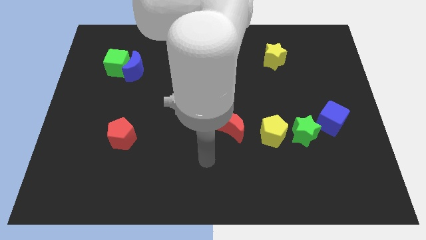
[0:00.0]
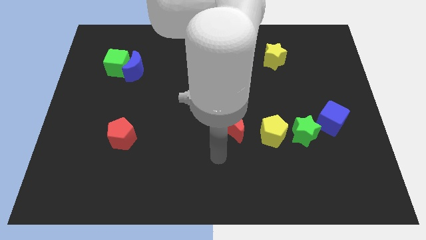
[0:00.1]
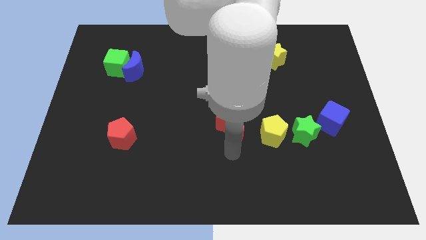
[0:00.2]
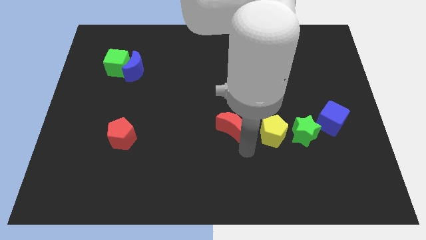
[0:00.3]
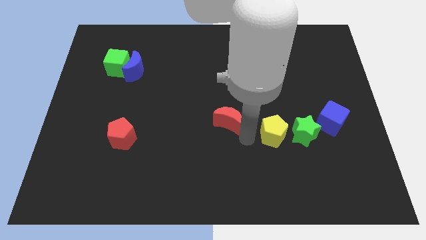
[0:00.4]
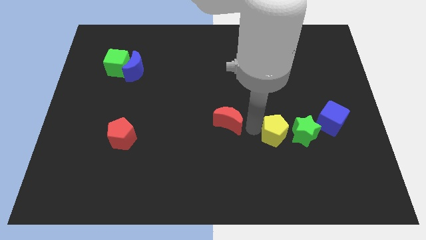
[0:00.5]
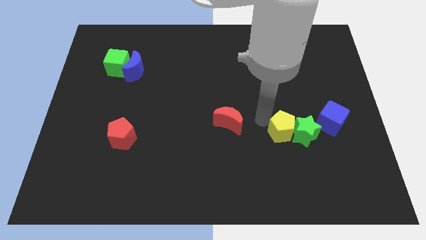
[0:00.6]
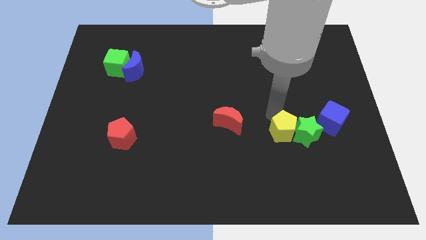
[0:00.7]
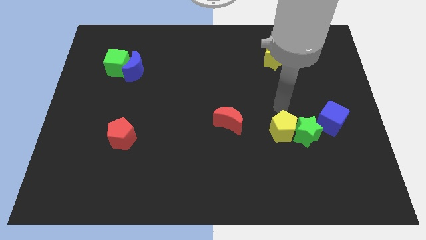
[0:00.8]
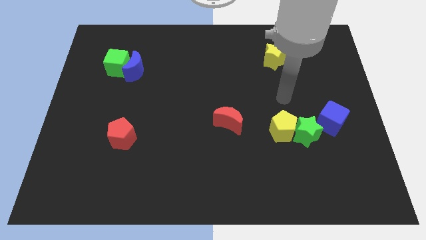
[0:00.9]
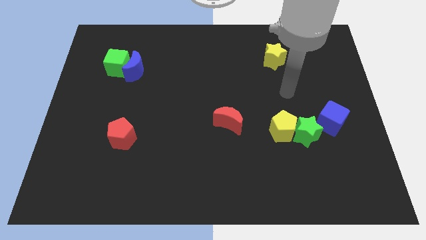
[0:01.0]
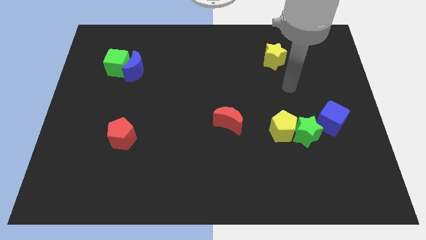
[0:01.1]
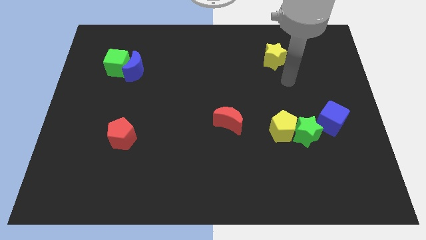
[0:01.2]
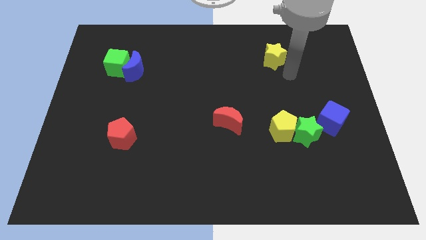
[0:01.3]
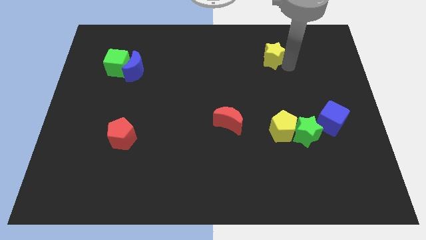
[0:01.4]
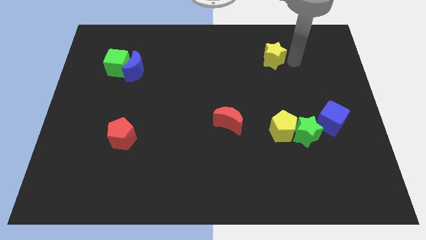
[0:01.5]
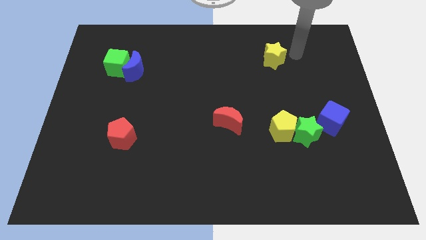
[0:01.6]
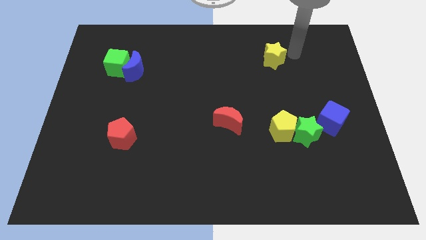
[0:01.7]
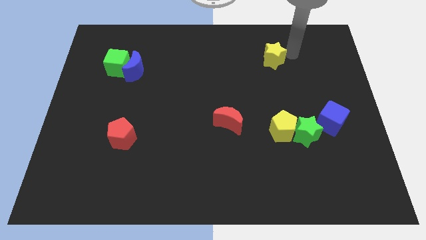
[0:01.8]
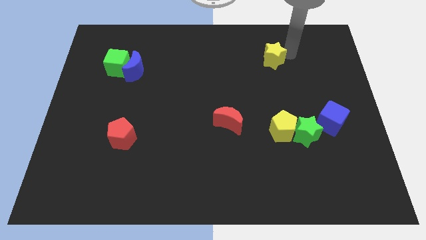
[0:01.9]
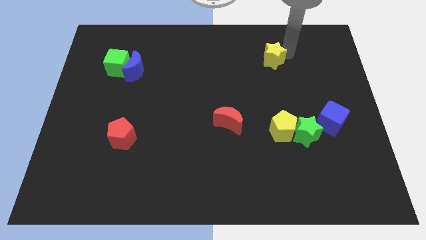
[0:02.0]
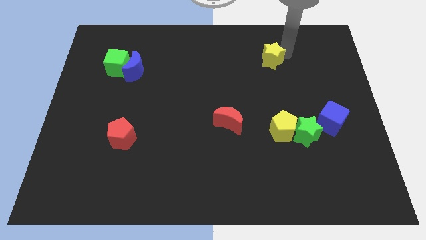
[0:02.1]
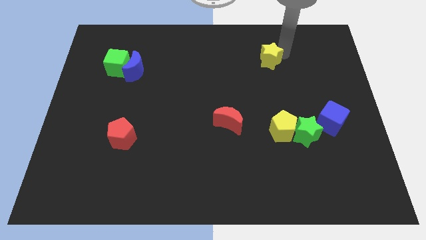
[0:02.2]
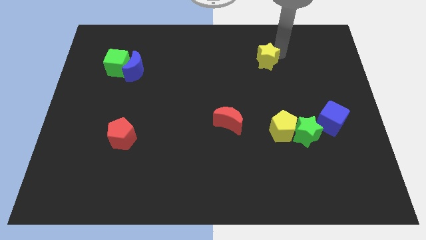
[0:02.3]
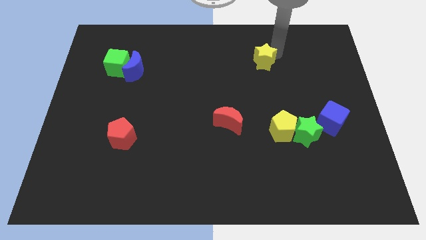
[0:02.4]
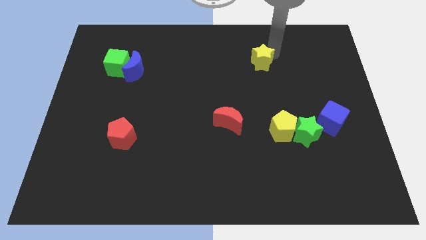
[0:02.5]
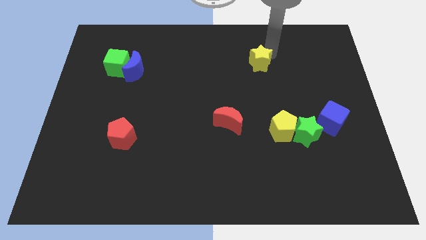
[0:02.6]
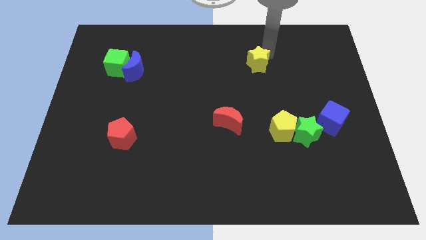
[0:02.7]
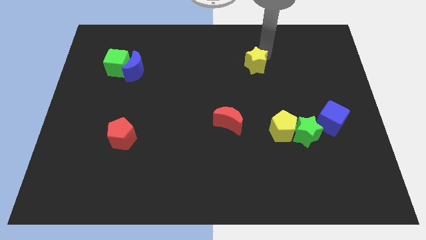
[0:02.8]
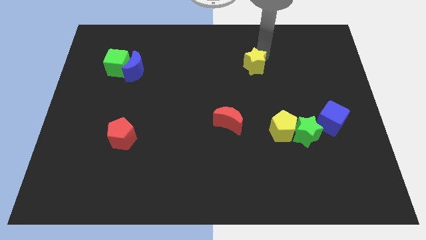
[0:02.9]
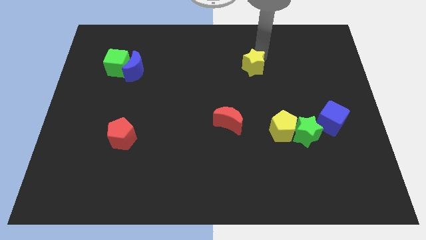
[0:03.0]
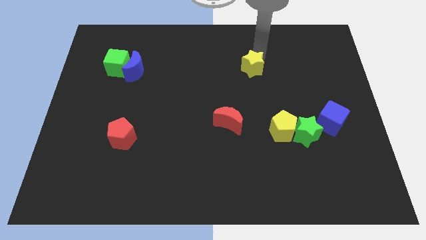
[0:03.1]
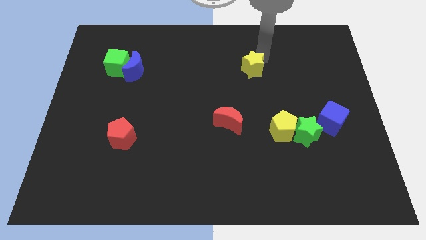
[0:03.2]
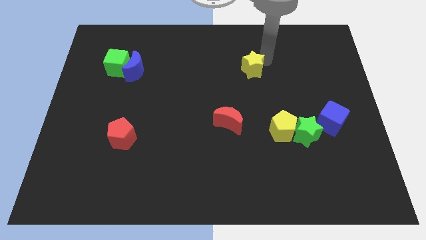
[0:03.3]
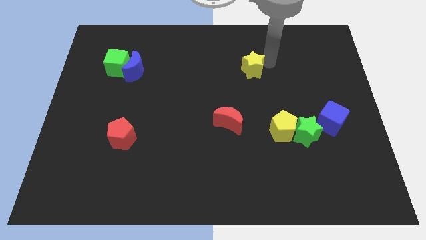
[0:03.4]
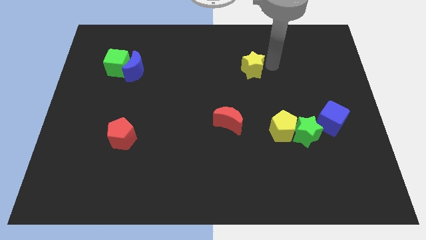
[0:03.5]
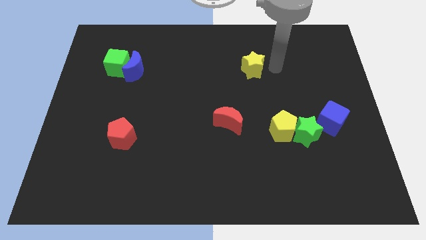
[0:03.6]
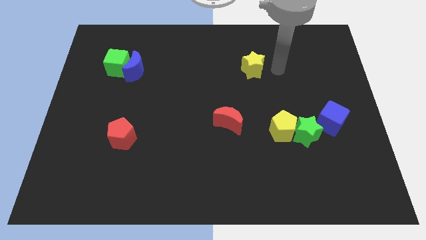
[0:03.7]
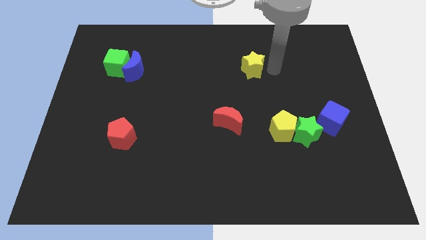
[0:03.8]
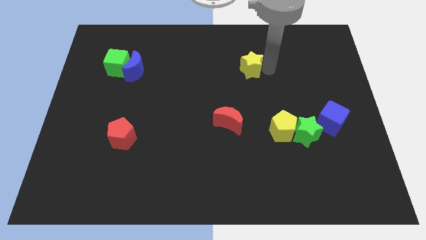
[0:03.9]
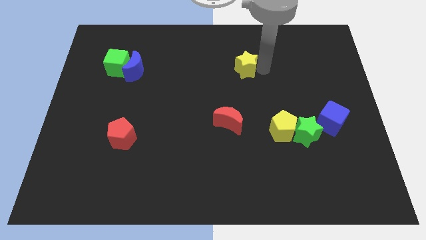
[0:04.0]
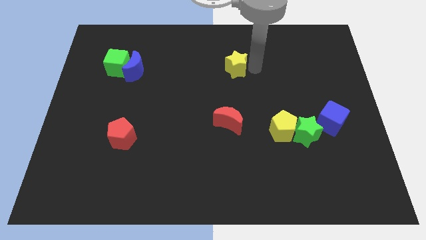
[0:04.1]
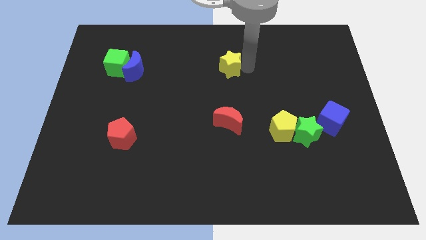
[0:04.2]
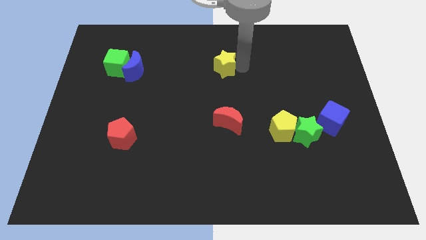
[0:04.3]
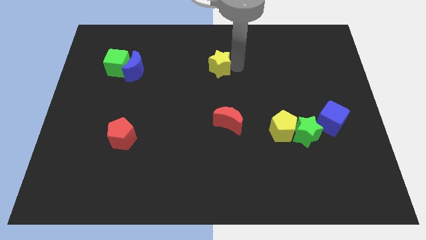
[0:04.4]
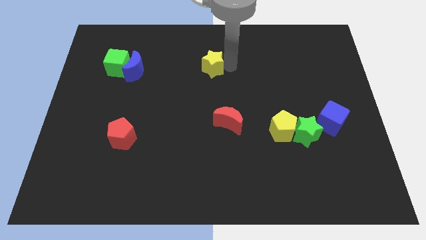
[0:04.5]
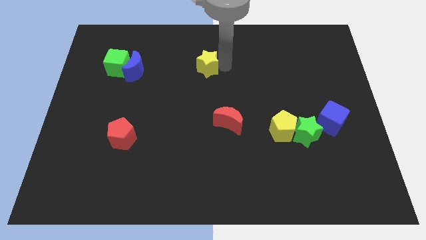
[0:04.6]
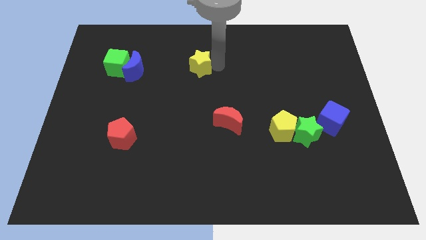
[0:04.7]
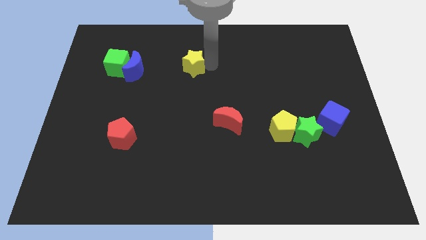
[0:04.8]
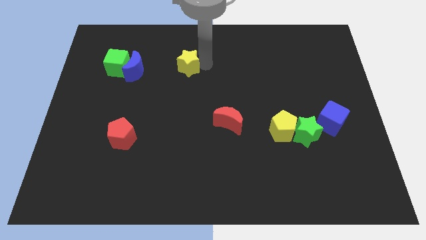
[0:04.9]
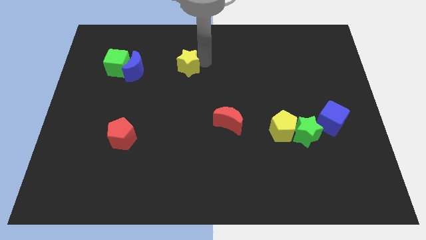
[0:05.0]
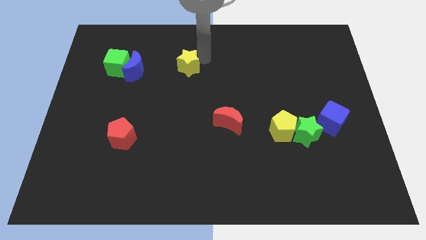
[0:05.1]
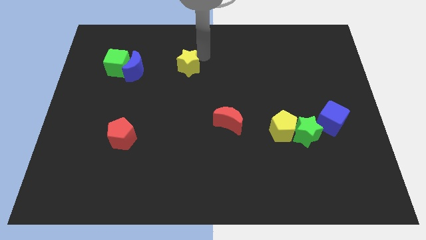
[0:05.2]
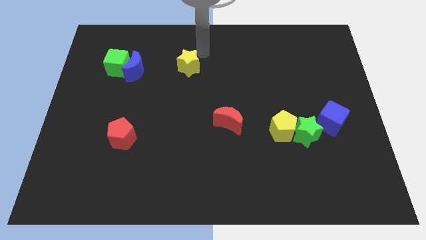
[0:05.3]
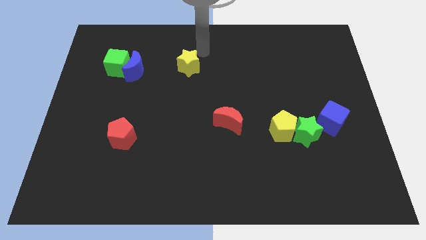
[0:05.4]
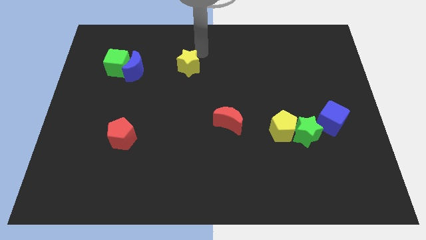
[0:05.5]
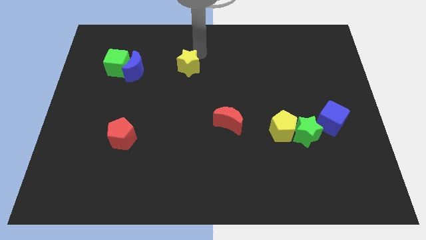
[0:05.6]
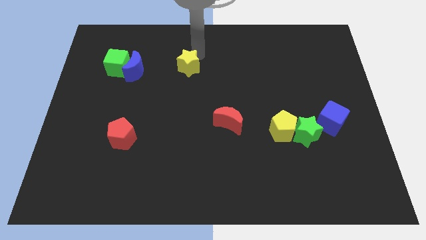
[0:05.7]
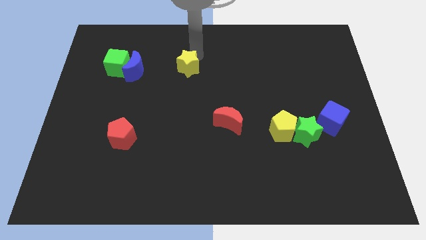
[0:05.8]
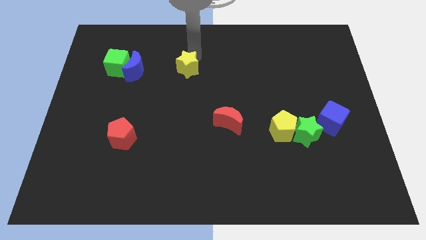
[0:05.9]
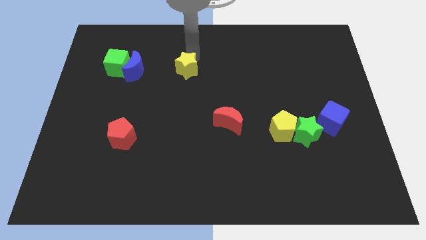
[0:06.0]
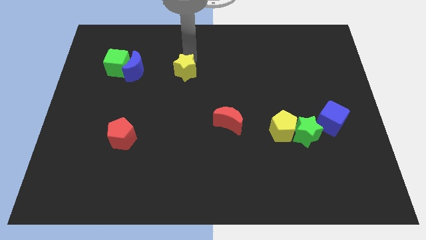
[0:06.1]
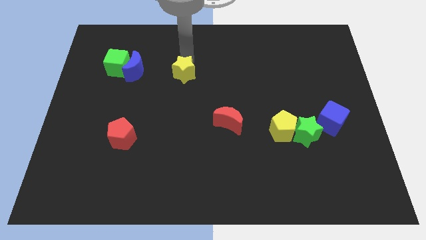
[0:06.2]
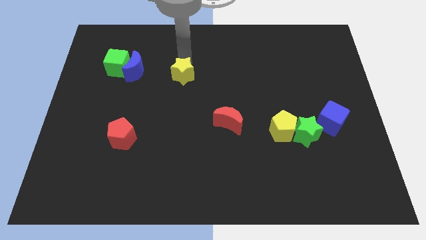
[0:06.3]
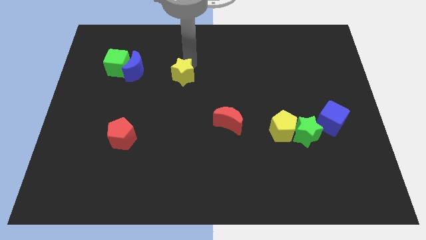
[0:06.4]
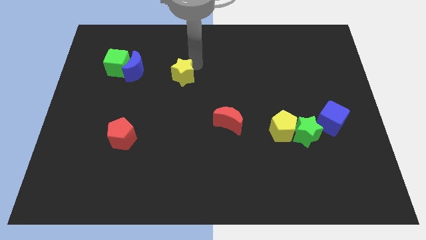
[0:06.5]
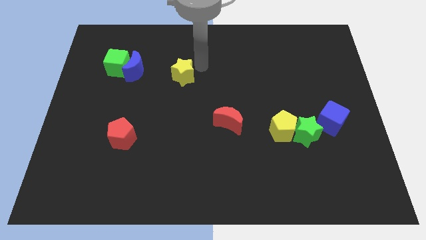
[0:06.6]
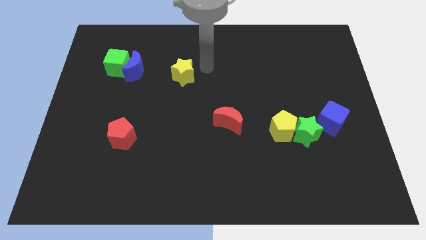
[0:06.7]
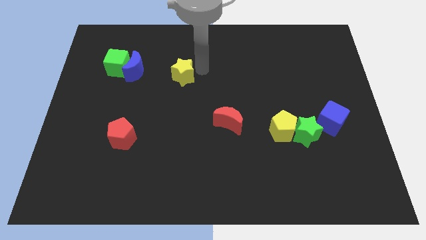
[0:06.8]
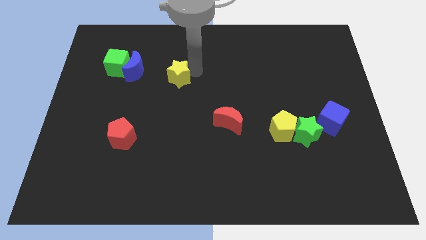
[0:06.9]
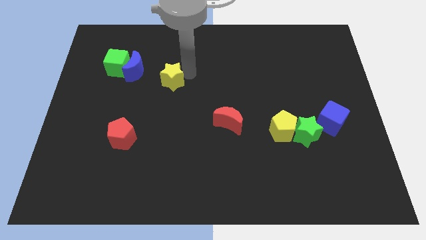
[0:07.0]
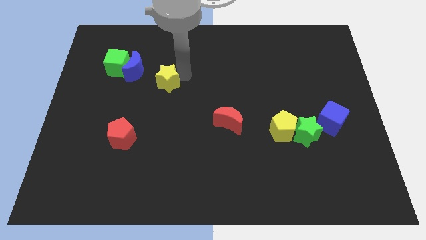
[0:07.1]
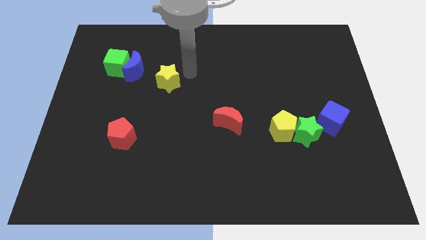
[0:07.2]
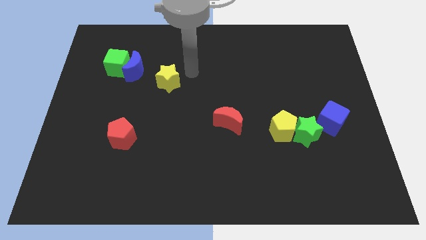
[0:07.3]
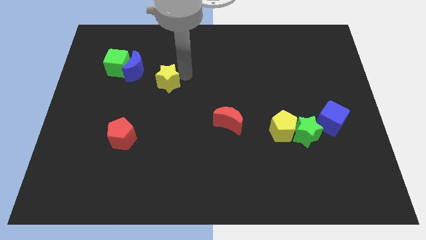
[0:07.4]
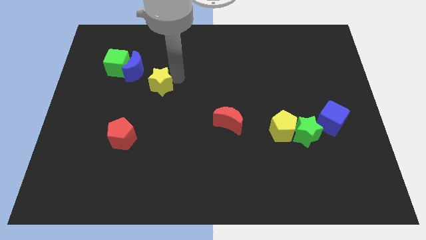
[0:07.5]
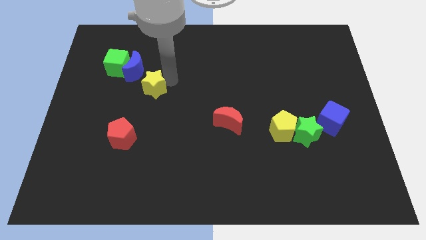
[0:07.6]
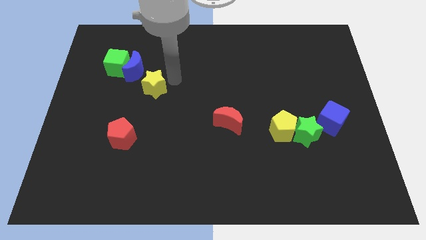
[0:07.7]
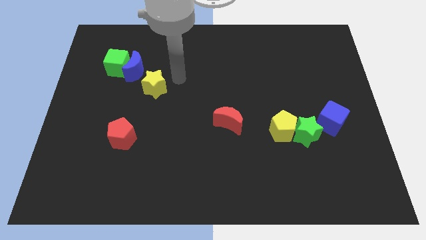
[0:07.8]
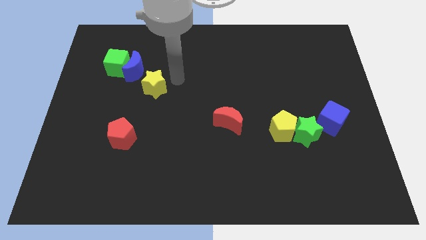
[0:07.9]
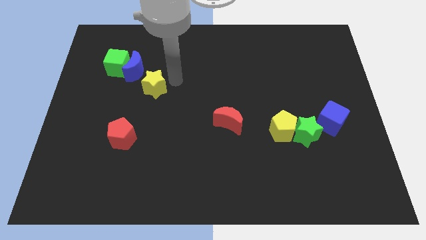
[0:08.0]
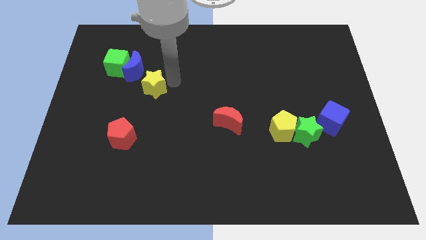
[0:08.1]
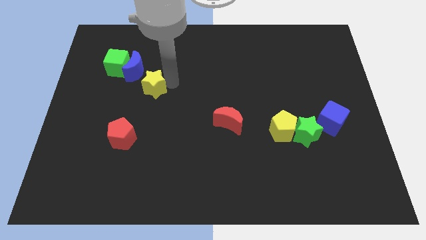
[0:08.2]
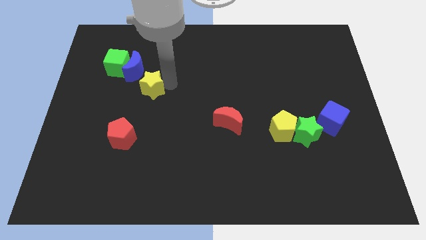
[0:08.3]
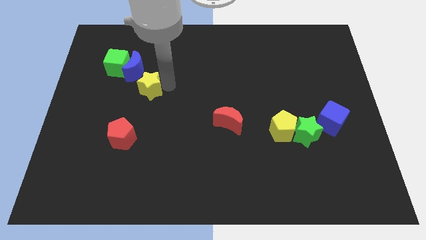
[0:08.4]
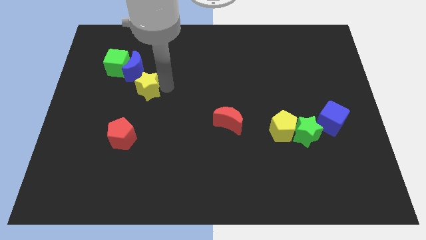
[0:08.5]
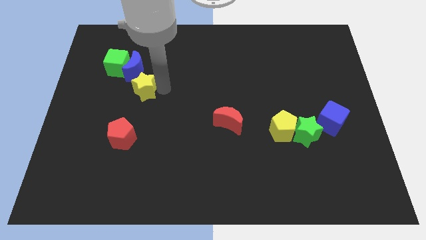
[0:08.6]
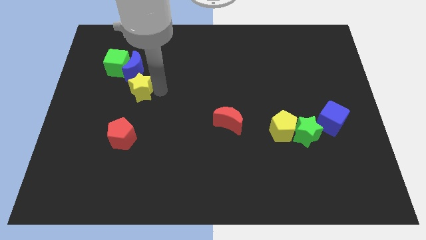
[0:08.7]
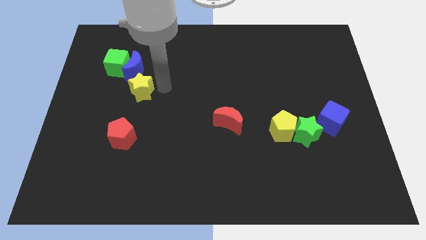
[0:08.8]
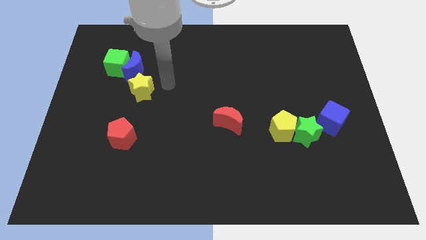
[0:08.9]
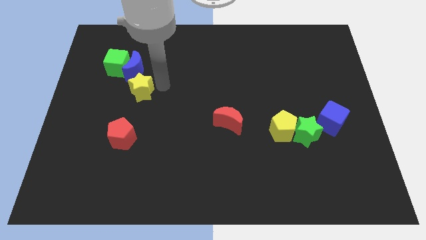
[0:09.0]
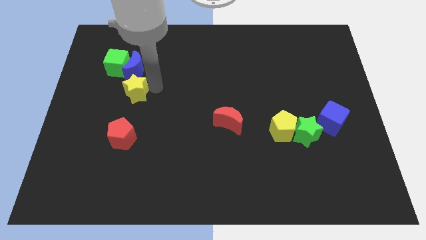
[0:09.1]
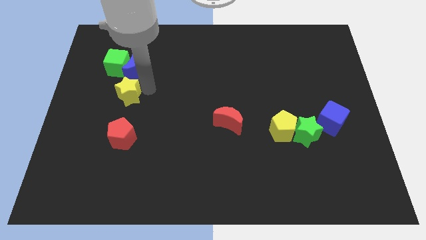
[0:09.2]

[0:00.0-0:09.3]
slide the yellow star to the bottom of the green cube
